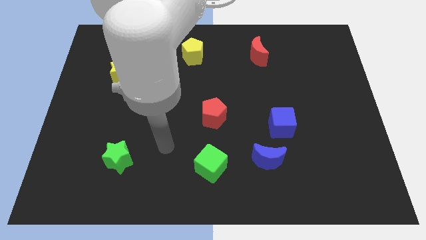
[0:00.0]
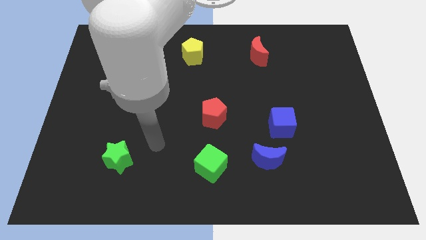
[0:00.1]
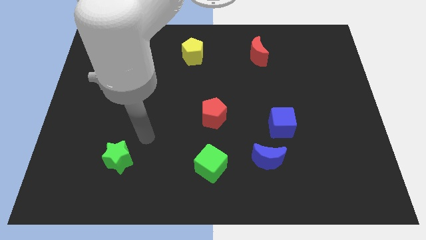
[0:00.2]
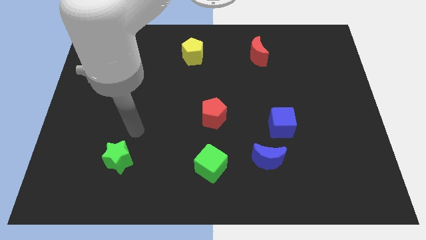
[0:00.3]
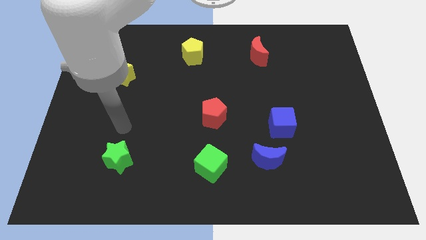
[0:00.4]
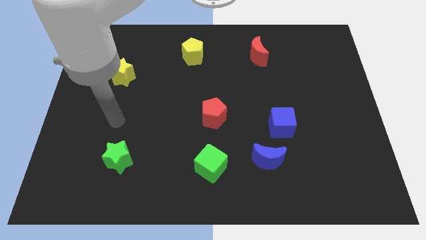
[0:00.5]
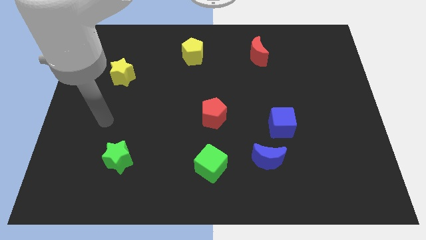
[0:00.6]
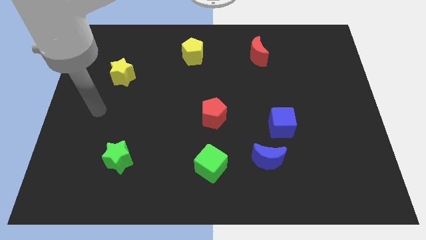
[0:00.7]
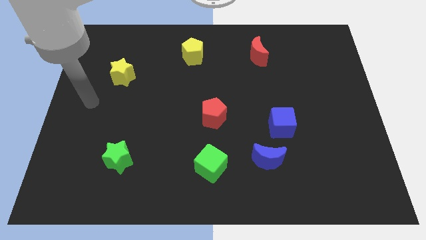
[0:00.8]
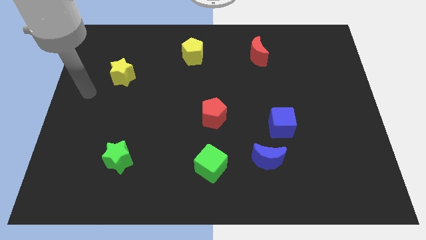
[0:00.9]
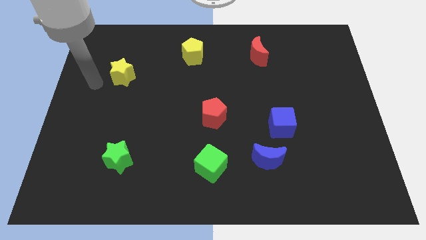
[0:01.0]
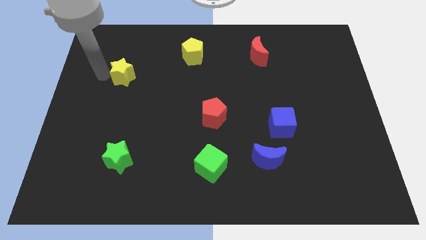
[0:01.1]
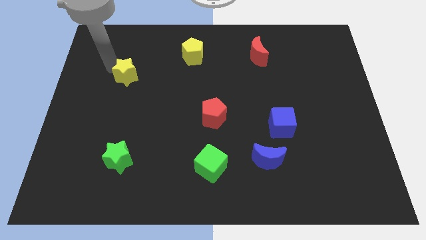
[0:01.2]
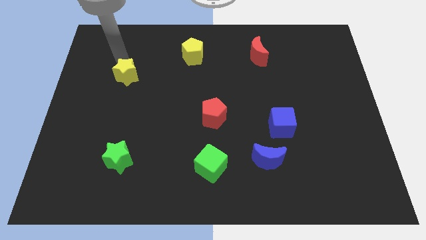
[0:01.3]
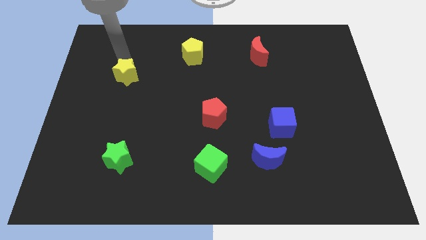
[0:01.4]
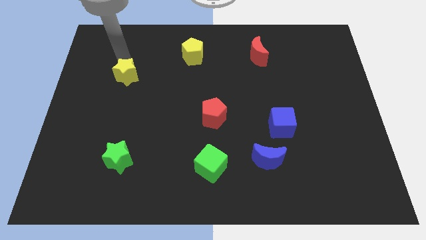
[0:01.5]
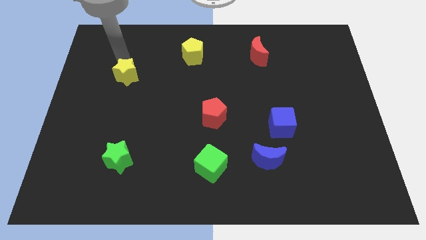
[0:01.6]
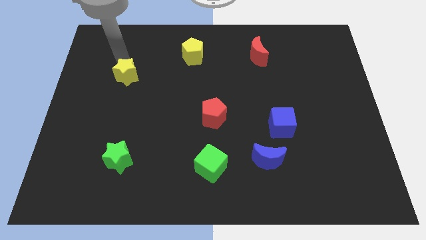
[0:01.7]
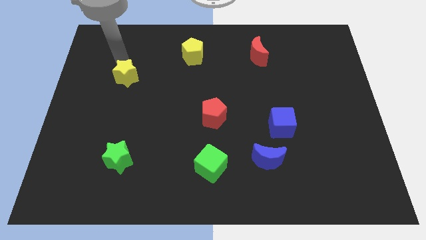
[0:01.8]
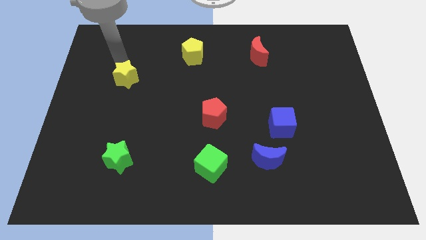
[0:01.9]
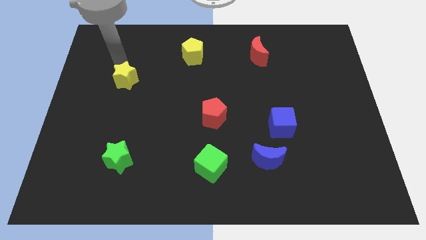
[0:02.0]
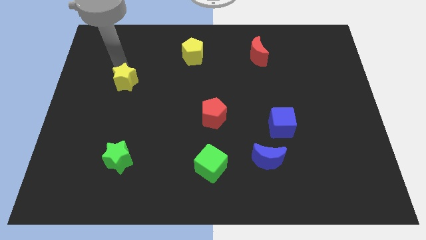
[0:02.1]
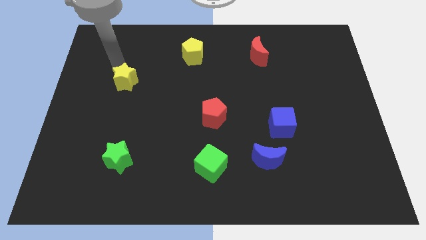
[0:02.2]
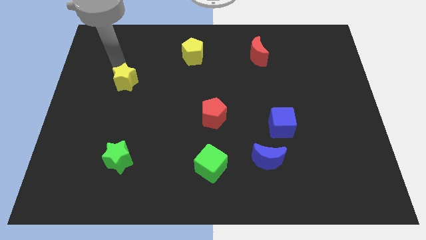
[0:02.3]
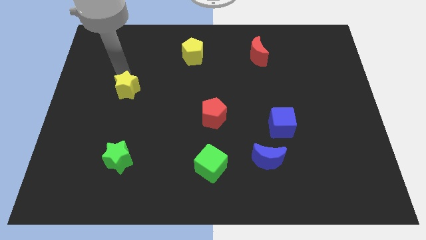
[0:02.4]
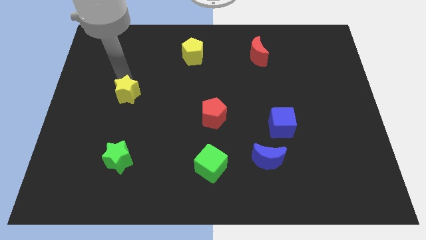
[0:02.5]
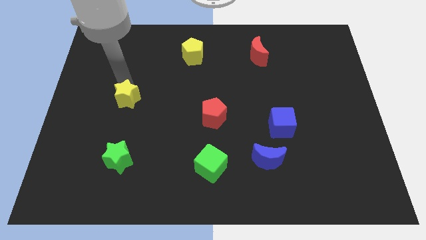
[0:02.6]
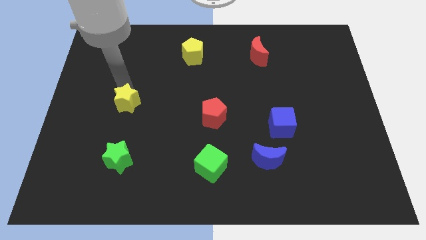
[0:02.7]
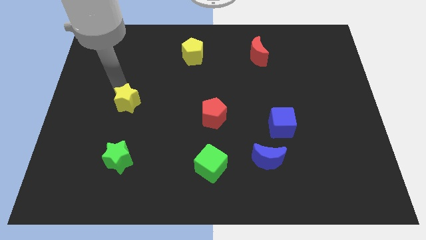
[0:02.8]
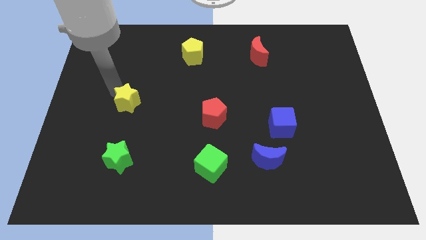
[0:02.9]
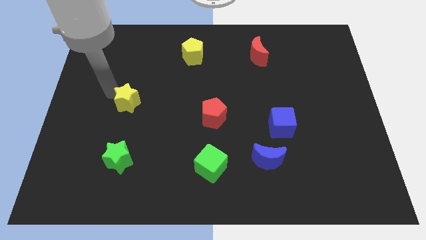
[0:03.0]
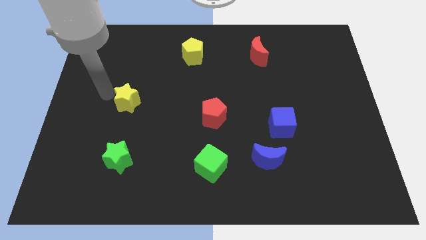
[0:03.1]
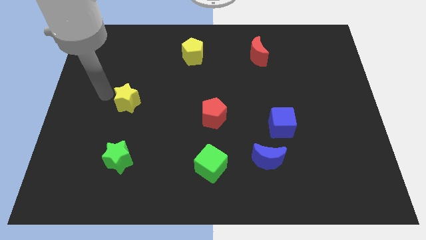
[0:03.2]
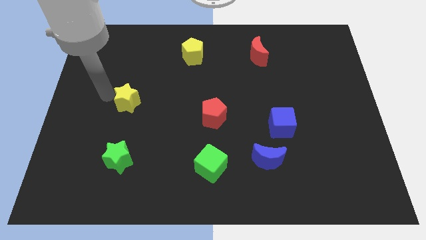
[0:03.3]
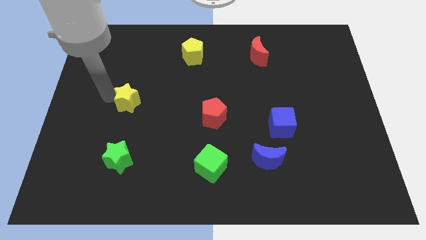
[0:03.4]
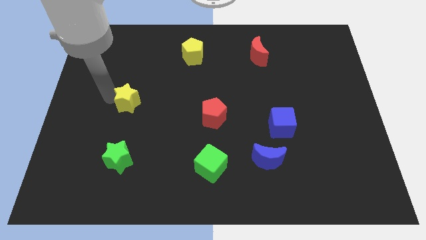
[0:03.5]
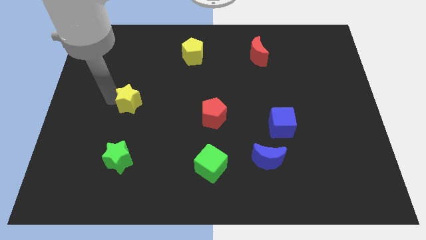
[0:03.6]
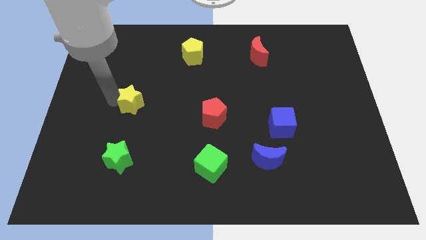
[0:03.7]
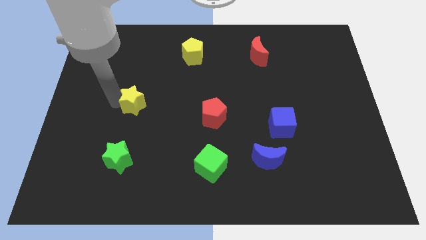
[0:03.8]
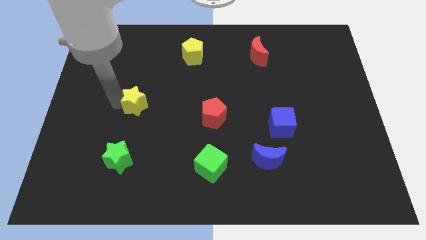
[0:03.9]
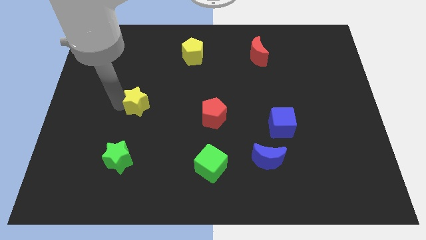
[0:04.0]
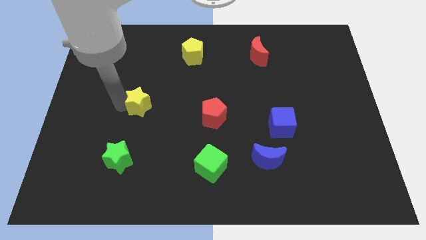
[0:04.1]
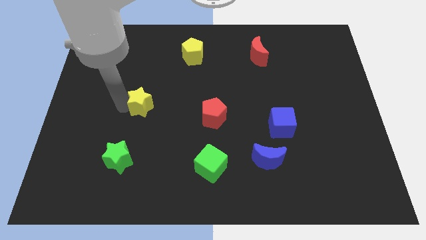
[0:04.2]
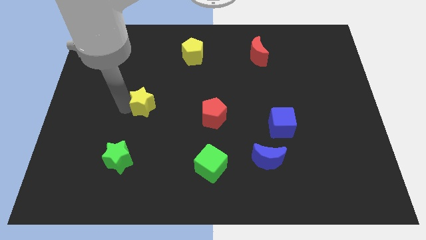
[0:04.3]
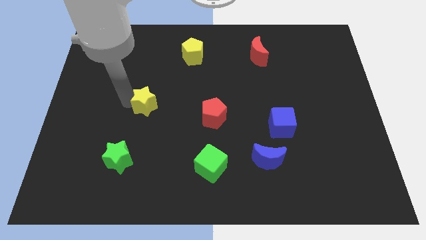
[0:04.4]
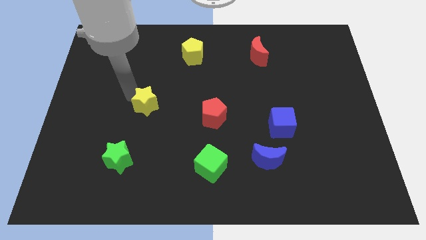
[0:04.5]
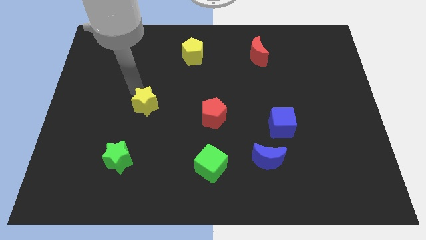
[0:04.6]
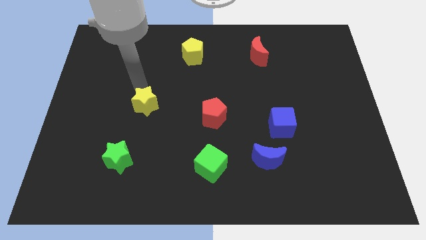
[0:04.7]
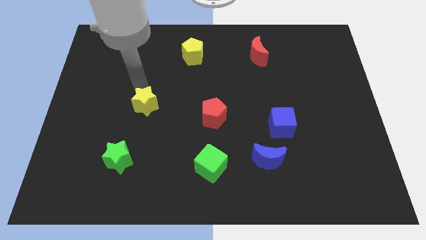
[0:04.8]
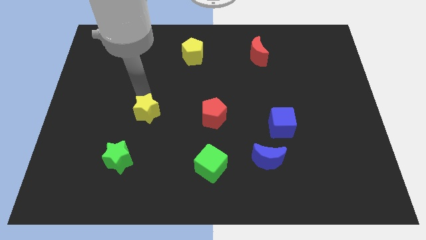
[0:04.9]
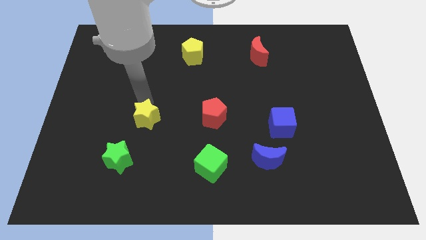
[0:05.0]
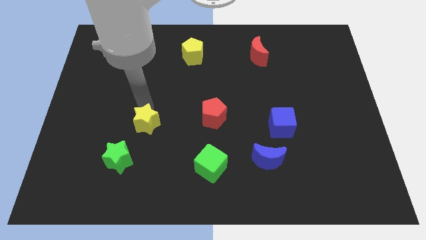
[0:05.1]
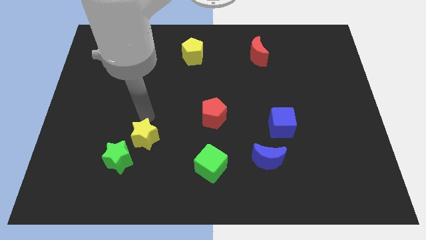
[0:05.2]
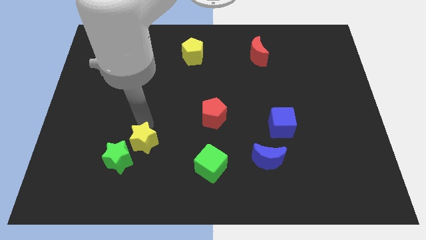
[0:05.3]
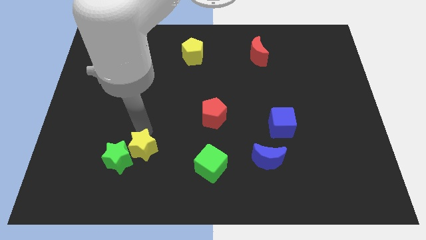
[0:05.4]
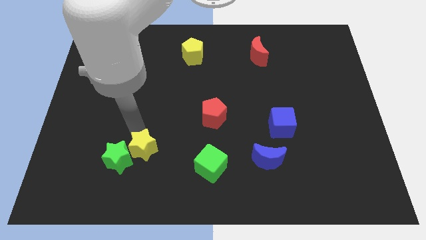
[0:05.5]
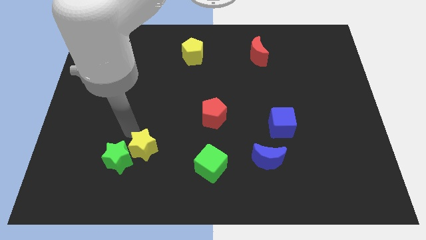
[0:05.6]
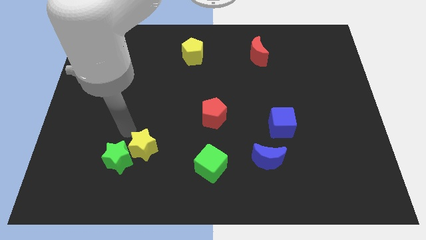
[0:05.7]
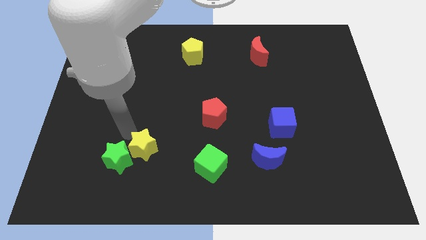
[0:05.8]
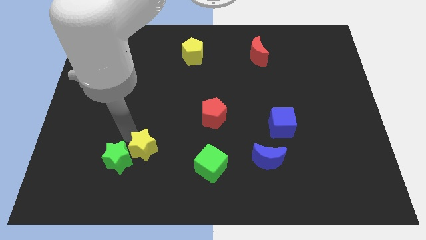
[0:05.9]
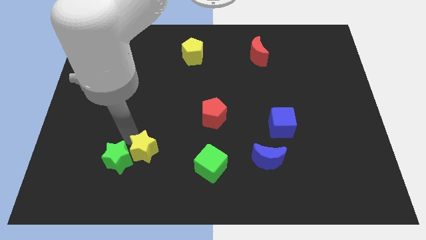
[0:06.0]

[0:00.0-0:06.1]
push the yellow star to the left side of the green cube

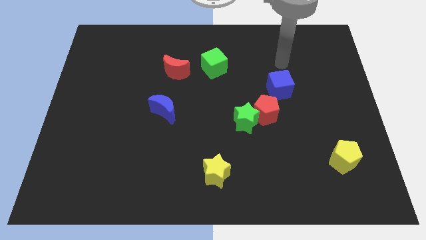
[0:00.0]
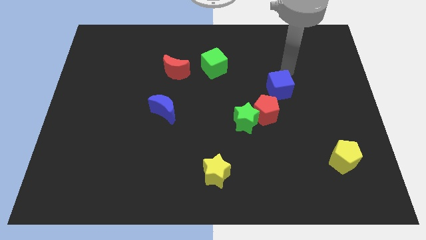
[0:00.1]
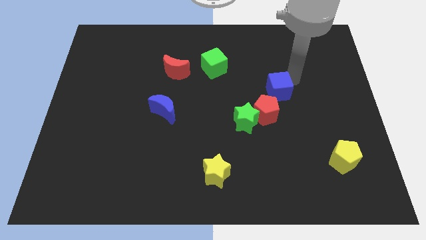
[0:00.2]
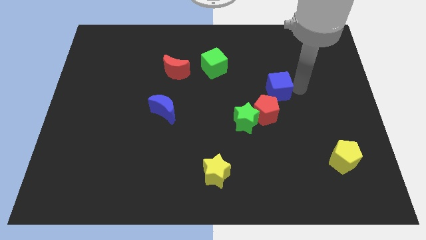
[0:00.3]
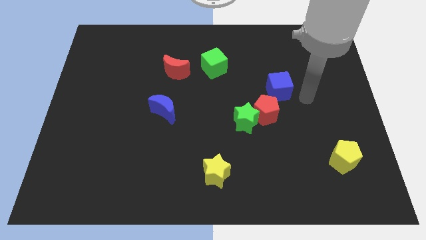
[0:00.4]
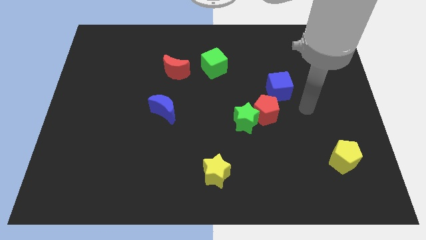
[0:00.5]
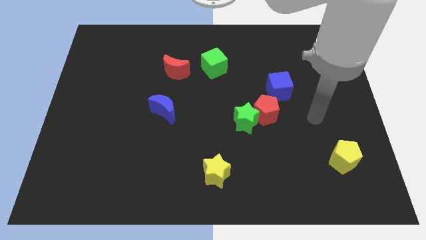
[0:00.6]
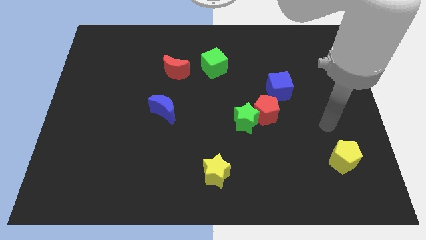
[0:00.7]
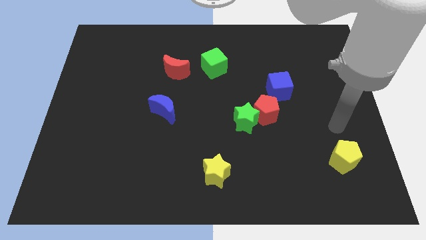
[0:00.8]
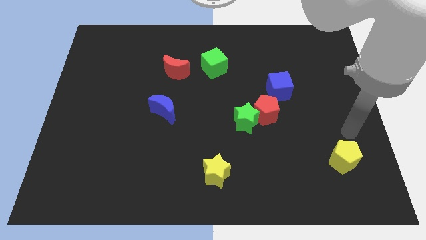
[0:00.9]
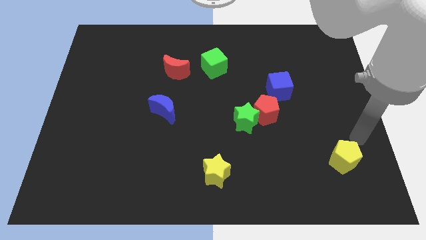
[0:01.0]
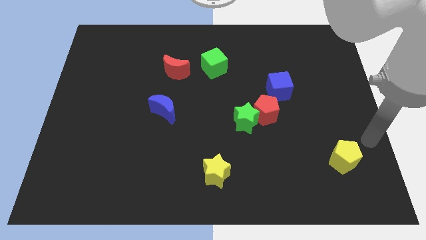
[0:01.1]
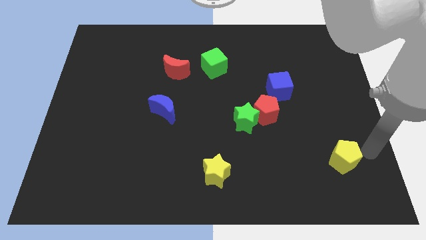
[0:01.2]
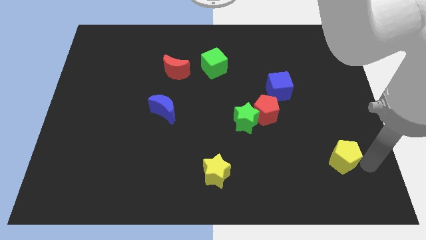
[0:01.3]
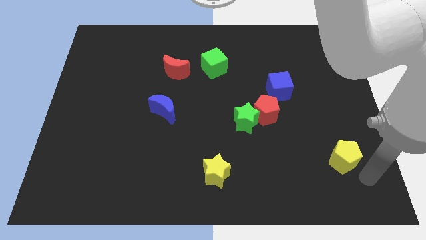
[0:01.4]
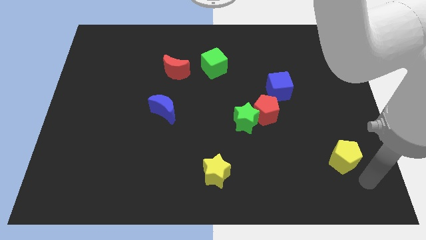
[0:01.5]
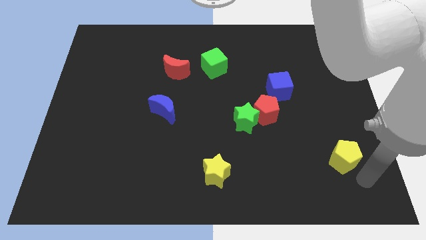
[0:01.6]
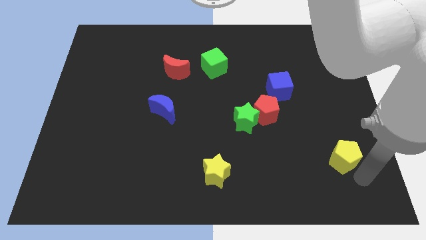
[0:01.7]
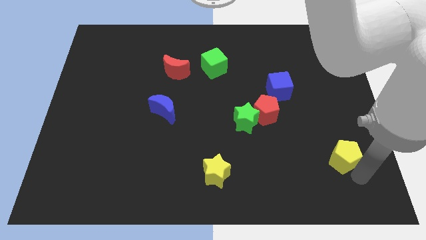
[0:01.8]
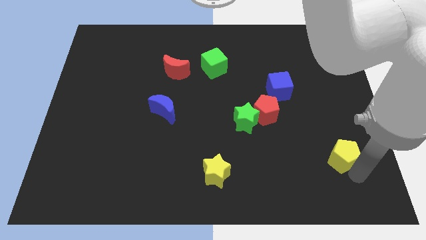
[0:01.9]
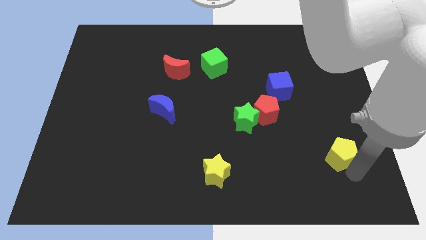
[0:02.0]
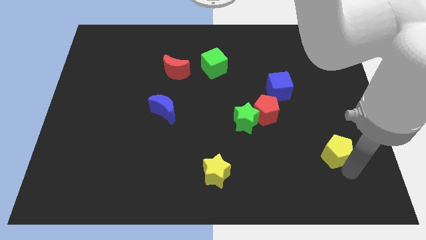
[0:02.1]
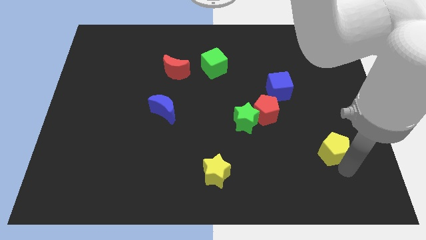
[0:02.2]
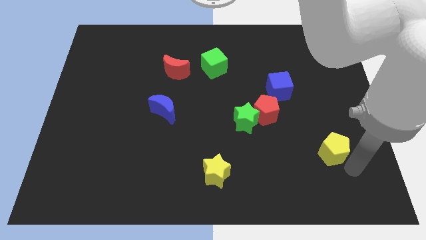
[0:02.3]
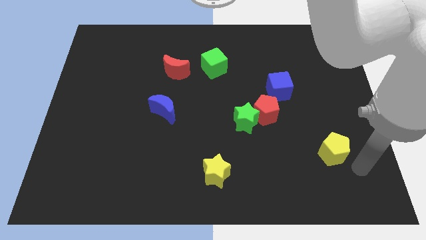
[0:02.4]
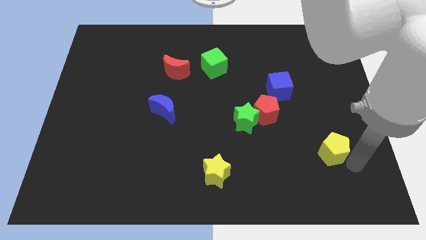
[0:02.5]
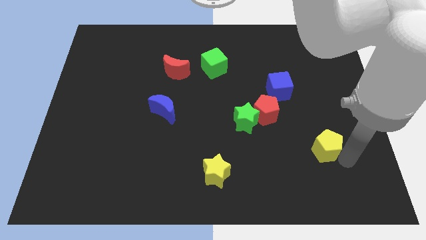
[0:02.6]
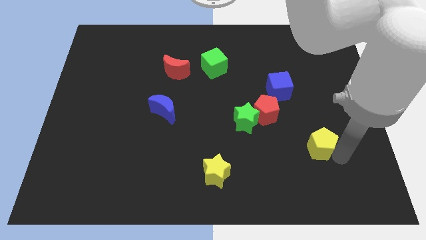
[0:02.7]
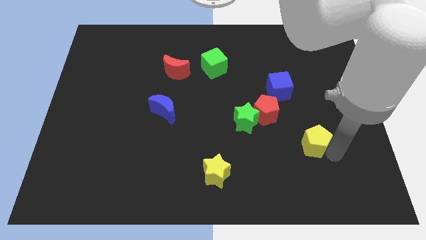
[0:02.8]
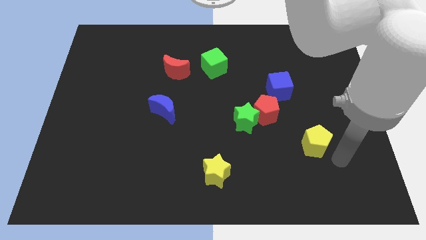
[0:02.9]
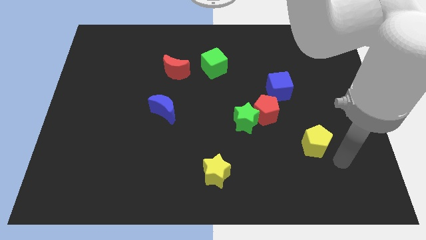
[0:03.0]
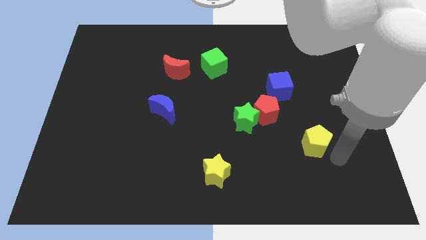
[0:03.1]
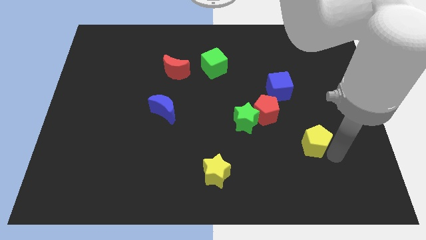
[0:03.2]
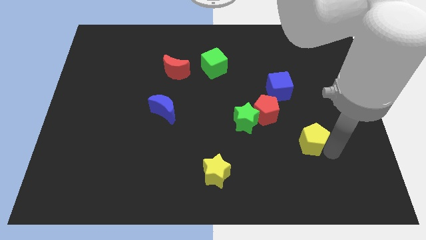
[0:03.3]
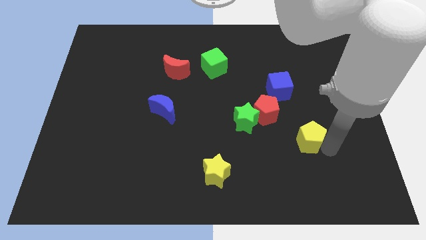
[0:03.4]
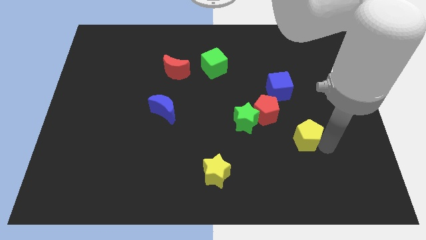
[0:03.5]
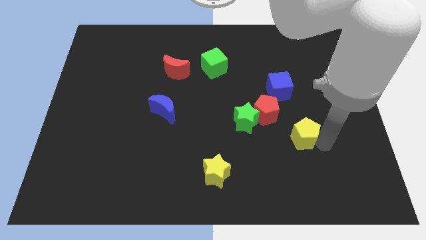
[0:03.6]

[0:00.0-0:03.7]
move the yellow pentagon below the blue cube
